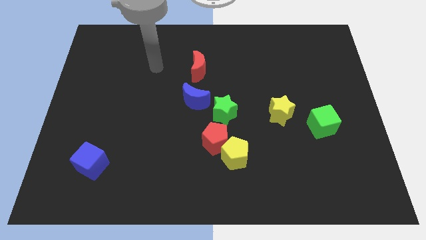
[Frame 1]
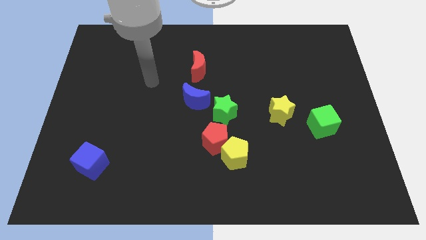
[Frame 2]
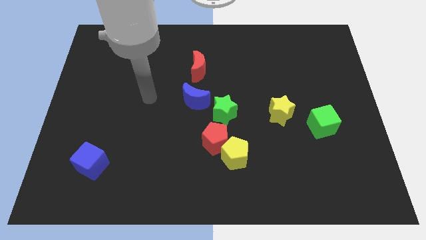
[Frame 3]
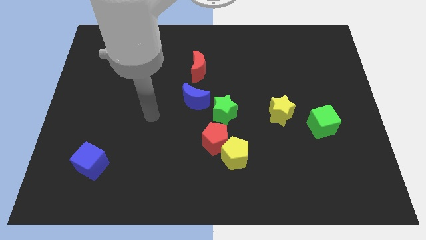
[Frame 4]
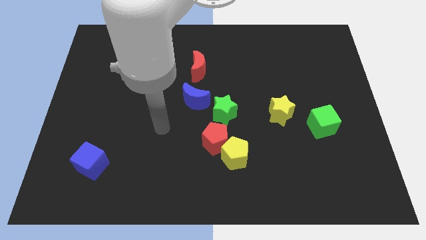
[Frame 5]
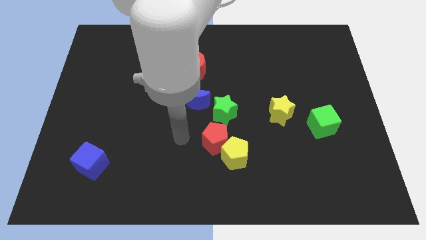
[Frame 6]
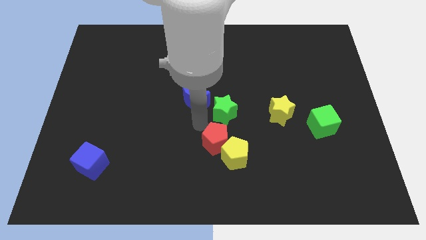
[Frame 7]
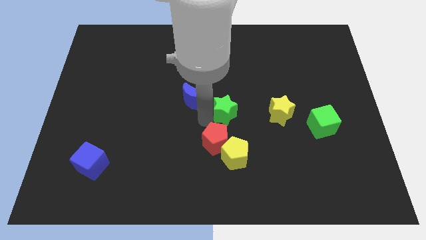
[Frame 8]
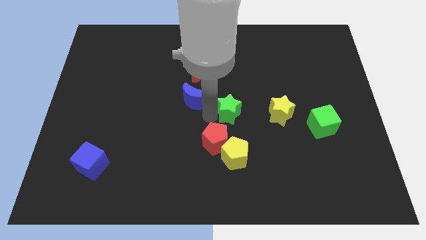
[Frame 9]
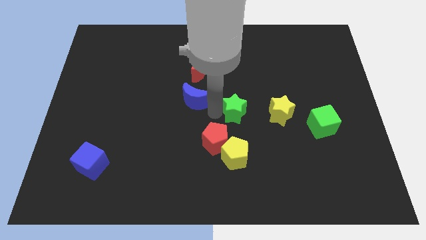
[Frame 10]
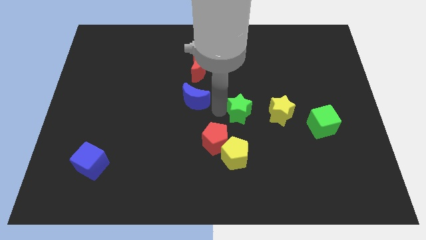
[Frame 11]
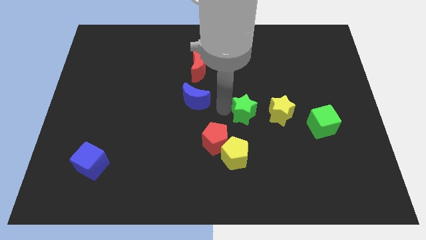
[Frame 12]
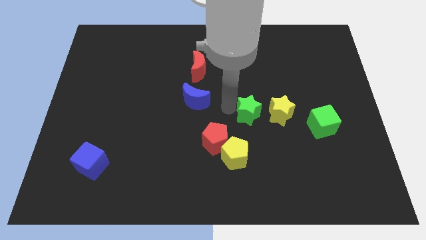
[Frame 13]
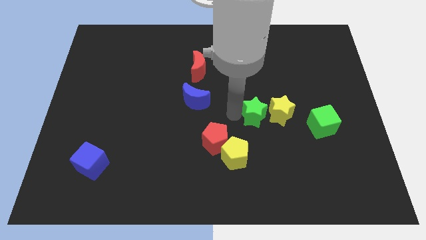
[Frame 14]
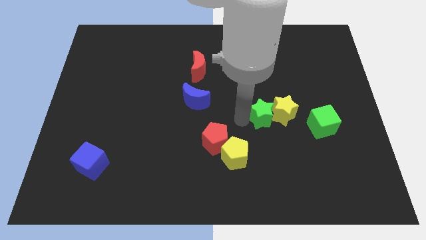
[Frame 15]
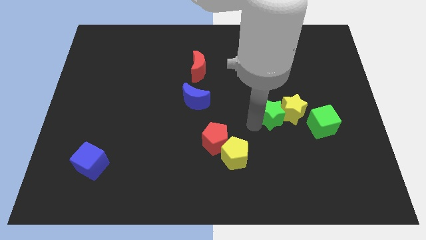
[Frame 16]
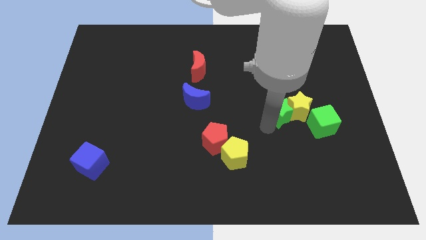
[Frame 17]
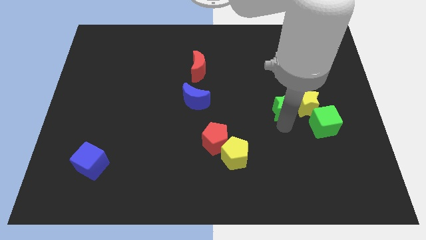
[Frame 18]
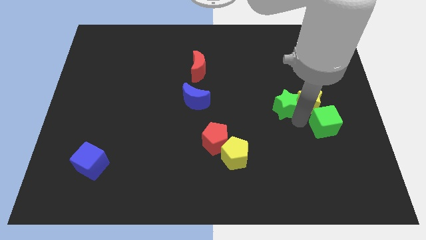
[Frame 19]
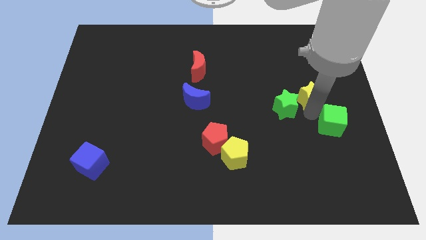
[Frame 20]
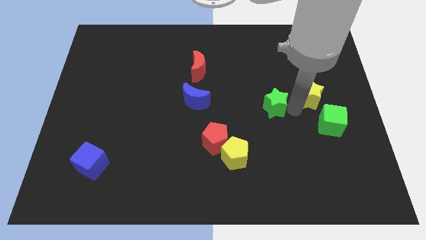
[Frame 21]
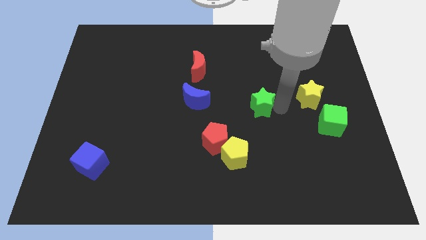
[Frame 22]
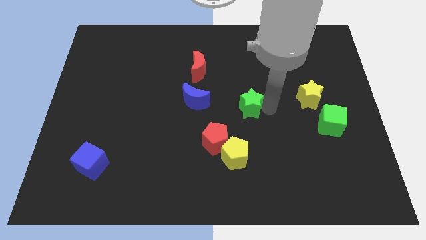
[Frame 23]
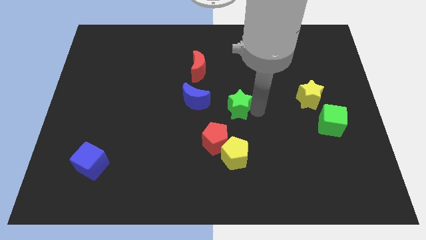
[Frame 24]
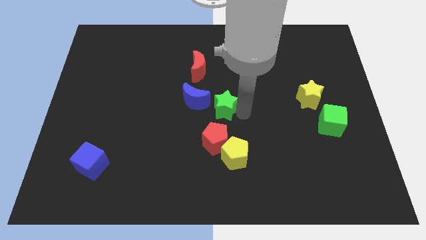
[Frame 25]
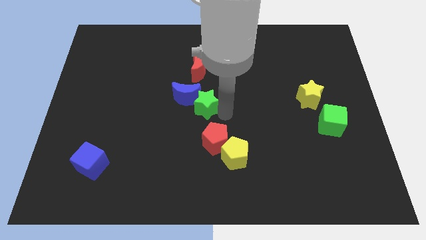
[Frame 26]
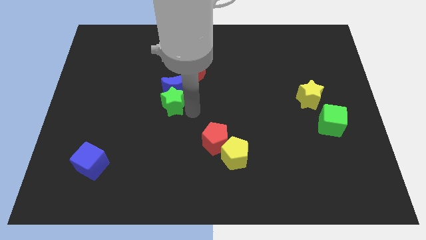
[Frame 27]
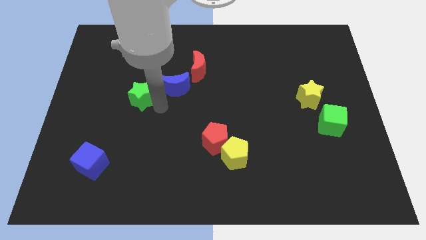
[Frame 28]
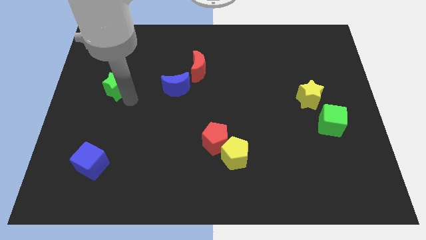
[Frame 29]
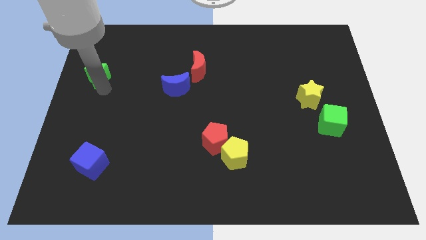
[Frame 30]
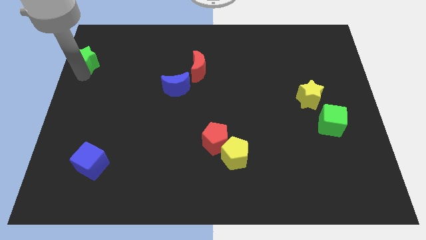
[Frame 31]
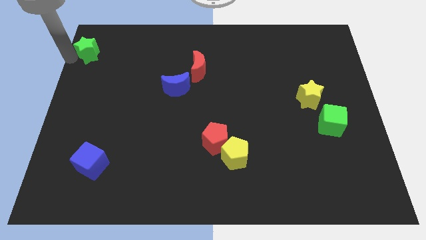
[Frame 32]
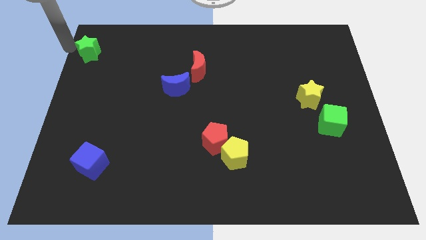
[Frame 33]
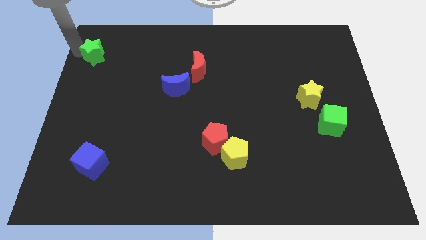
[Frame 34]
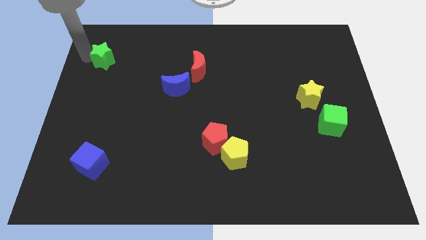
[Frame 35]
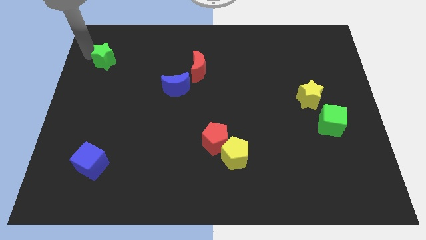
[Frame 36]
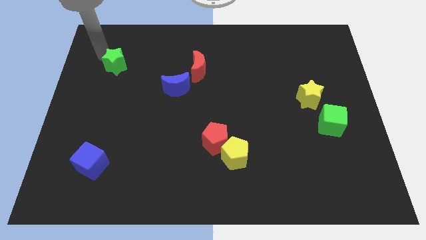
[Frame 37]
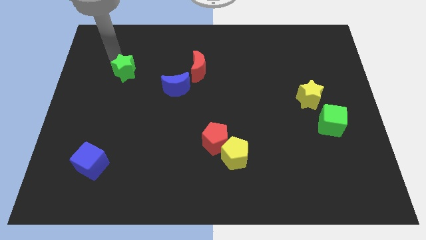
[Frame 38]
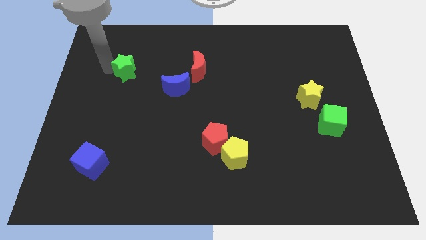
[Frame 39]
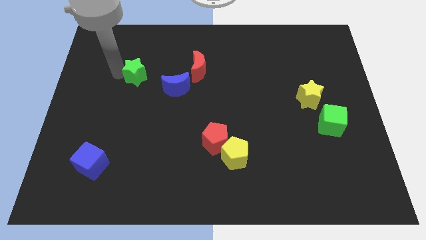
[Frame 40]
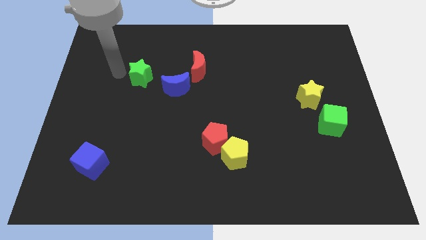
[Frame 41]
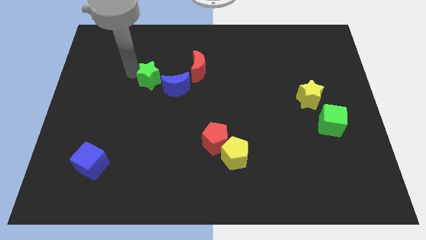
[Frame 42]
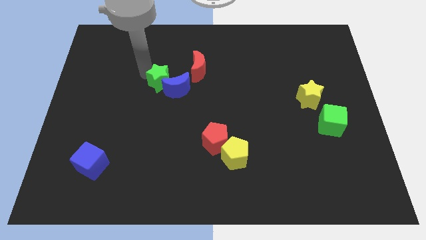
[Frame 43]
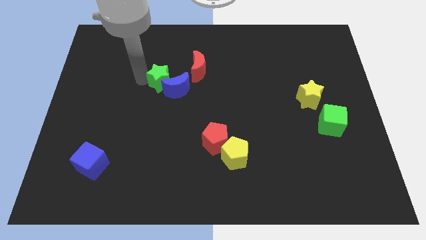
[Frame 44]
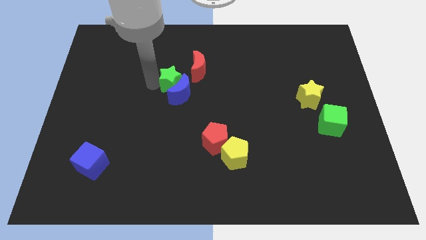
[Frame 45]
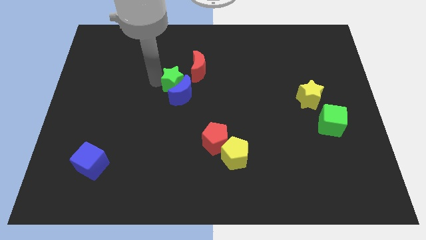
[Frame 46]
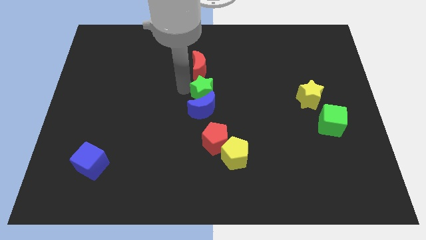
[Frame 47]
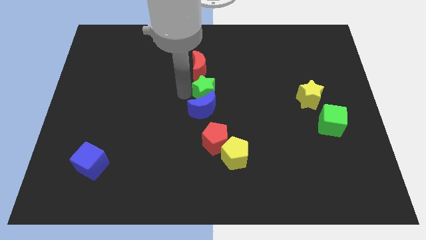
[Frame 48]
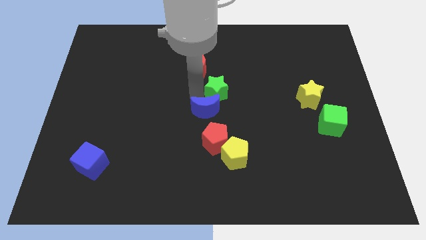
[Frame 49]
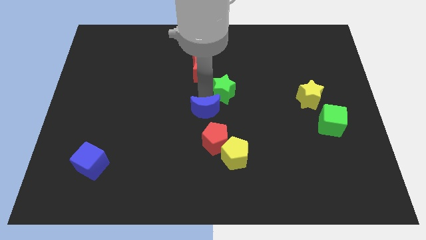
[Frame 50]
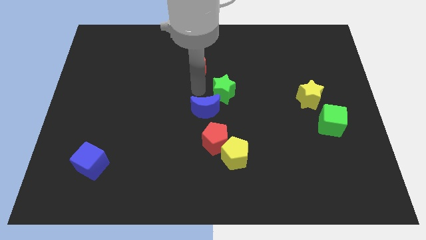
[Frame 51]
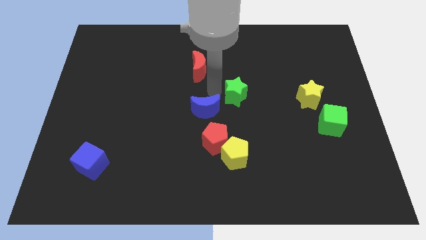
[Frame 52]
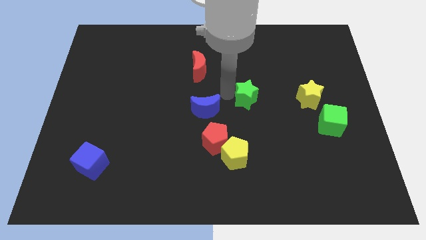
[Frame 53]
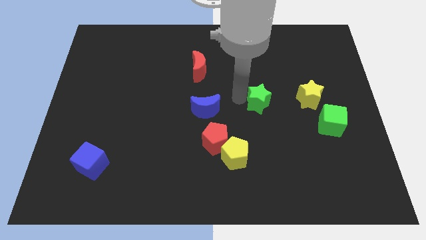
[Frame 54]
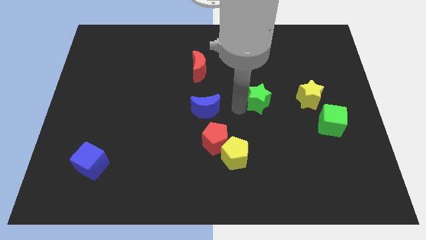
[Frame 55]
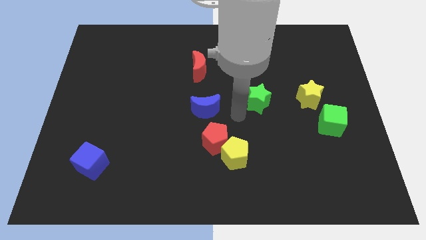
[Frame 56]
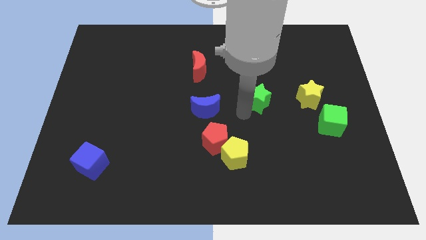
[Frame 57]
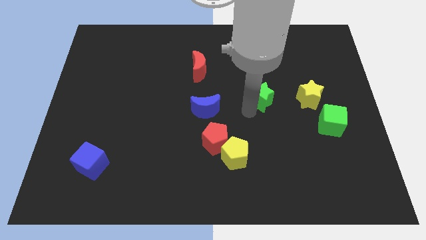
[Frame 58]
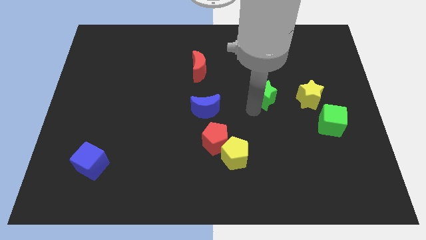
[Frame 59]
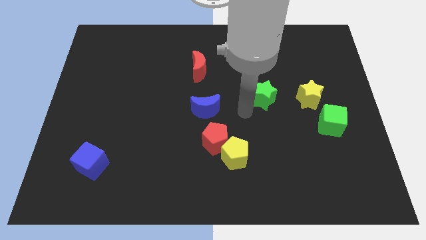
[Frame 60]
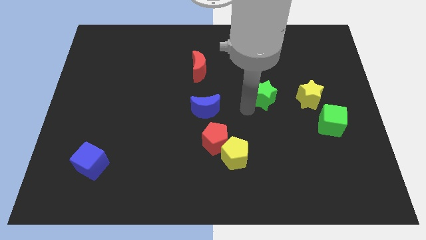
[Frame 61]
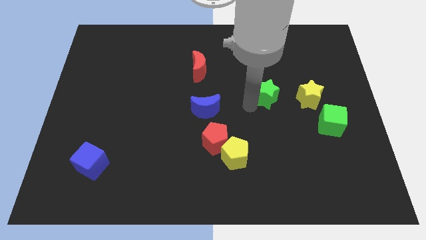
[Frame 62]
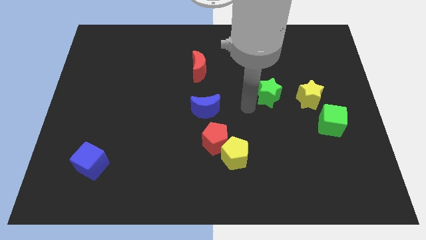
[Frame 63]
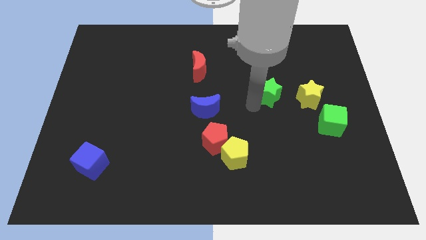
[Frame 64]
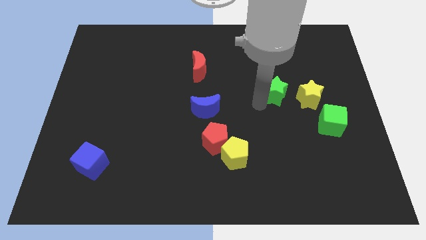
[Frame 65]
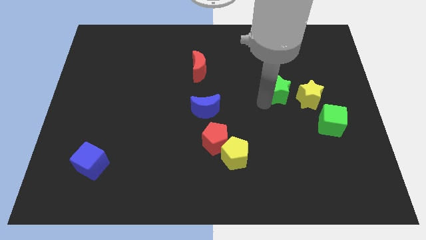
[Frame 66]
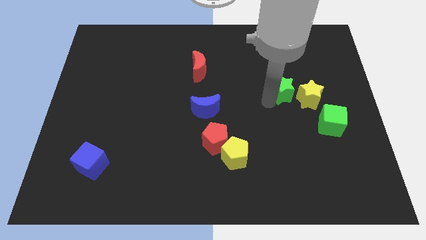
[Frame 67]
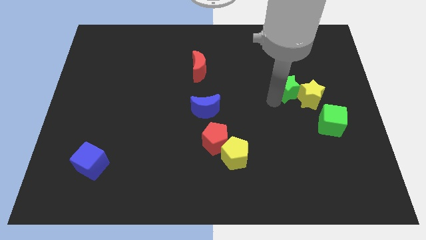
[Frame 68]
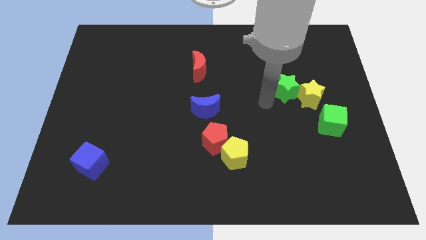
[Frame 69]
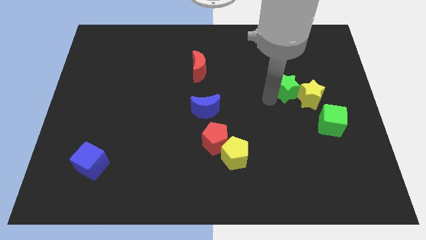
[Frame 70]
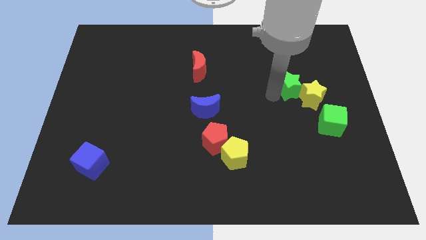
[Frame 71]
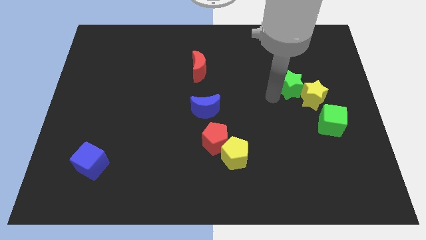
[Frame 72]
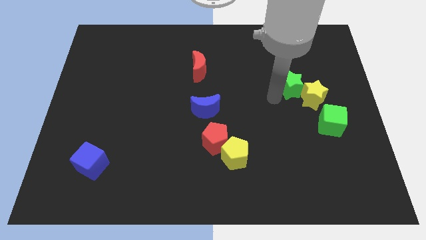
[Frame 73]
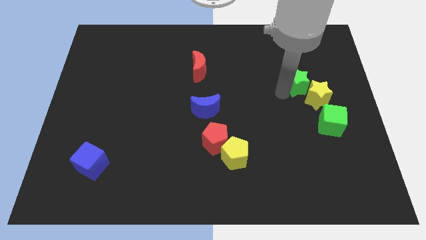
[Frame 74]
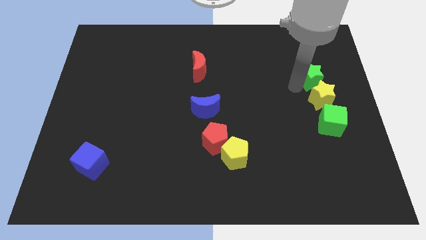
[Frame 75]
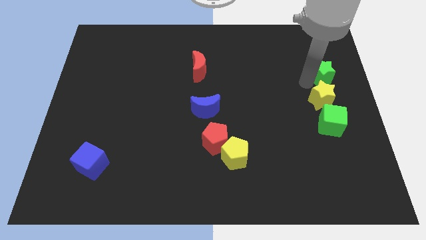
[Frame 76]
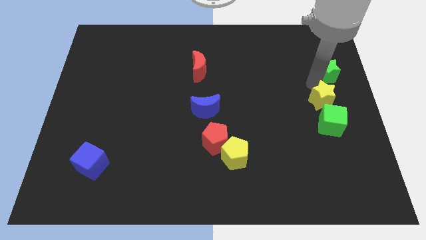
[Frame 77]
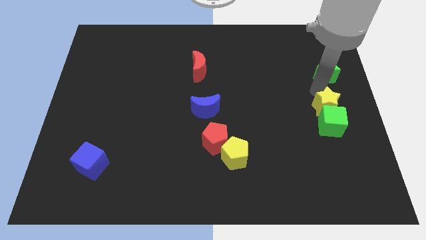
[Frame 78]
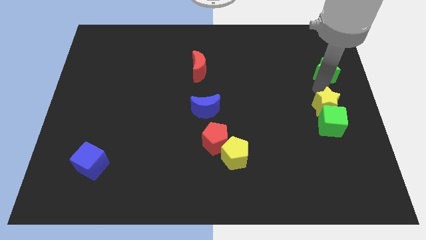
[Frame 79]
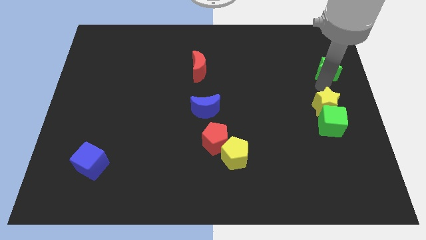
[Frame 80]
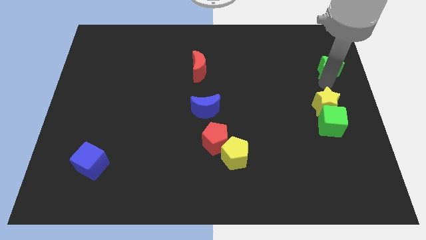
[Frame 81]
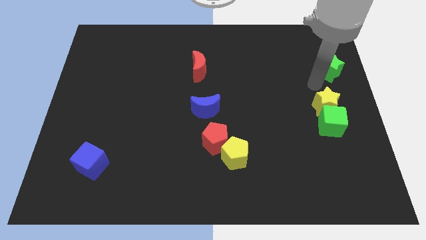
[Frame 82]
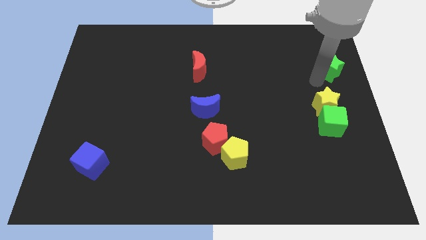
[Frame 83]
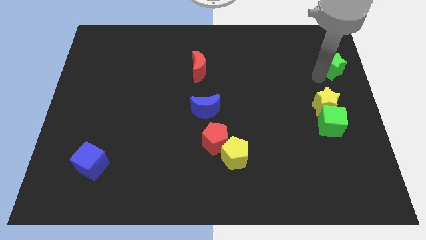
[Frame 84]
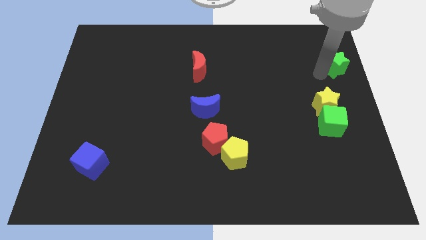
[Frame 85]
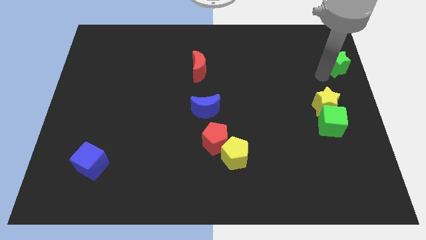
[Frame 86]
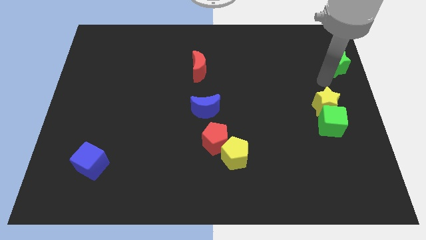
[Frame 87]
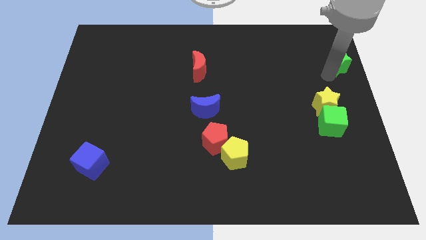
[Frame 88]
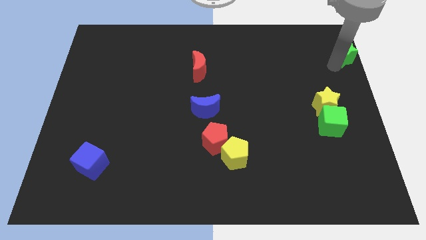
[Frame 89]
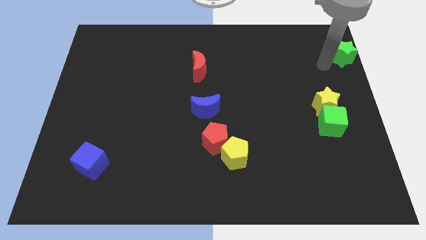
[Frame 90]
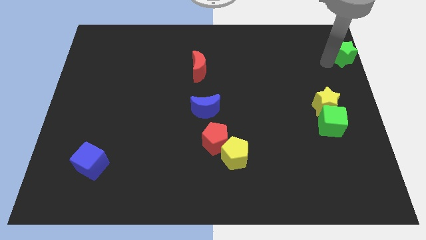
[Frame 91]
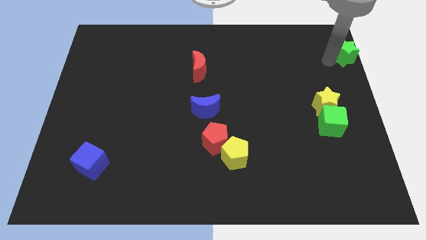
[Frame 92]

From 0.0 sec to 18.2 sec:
put the green star to the upper right corner
